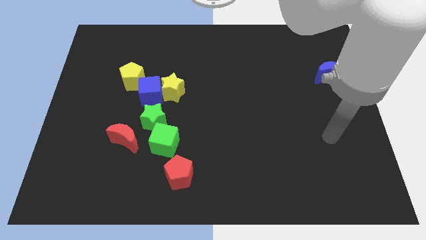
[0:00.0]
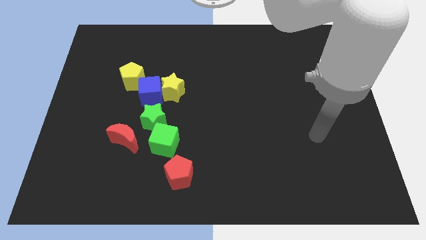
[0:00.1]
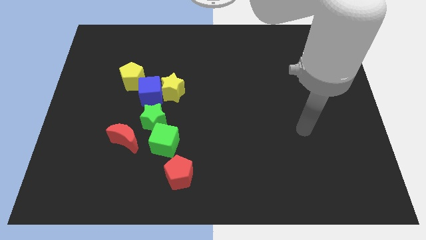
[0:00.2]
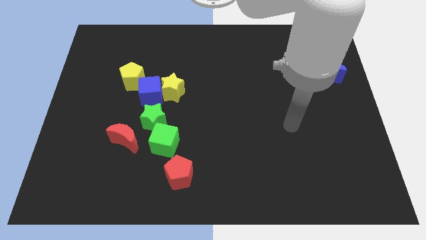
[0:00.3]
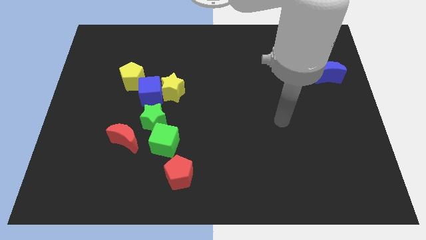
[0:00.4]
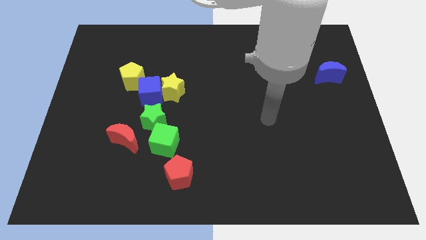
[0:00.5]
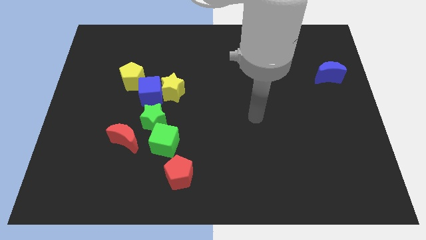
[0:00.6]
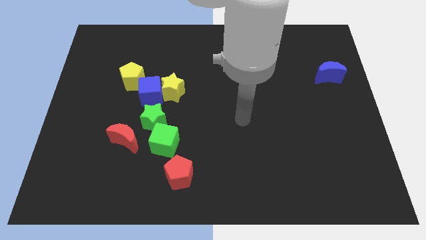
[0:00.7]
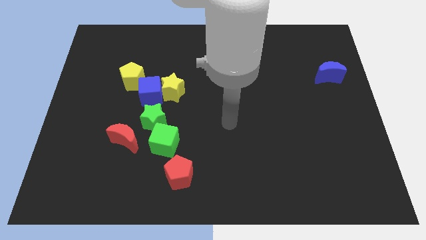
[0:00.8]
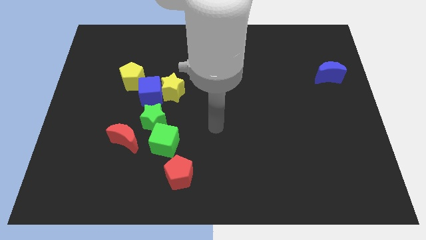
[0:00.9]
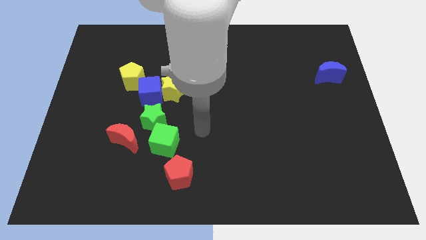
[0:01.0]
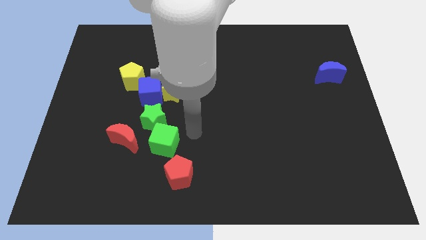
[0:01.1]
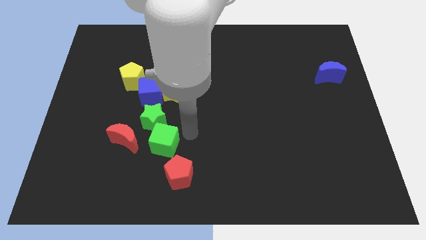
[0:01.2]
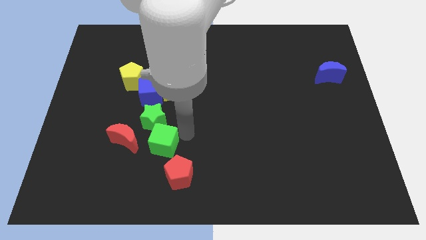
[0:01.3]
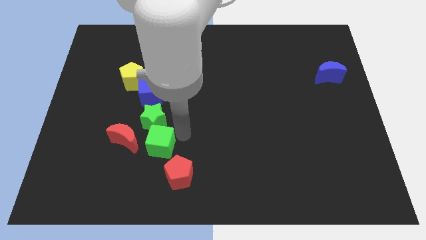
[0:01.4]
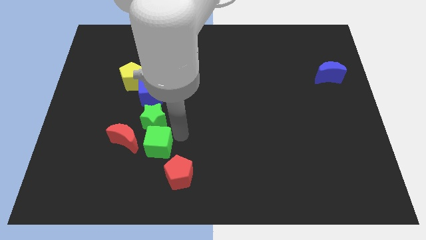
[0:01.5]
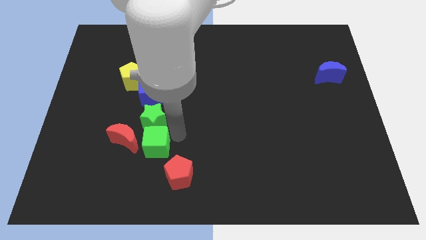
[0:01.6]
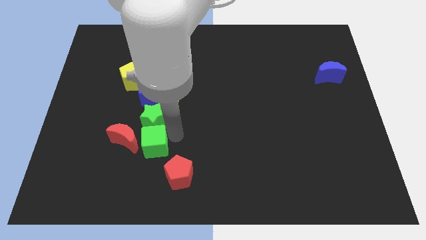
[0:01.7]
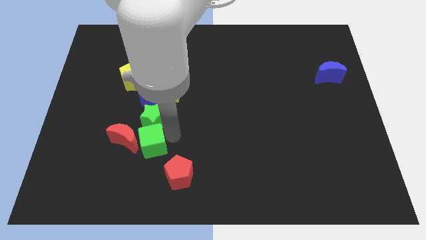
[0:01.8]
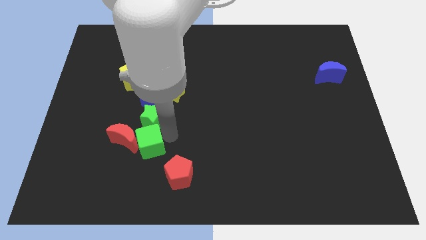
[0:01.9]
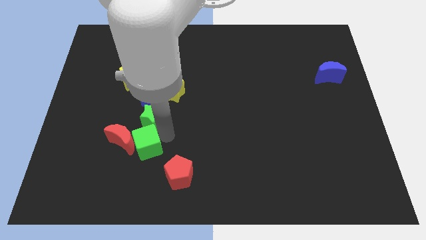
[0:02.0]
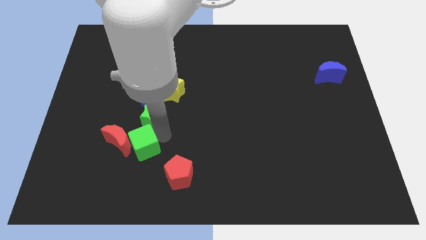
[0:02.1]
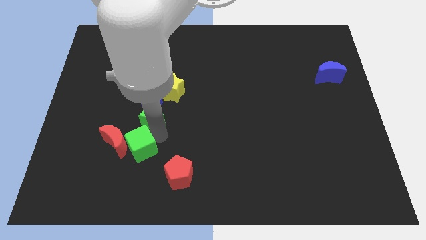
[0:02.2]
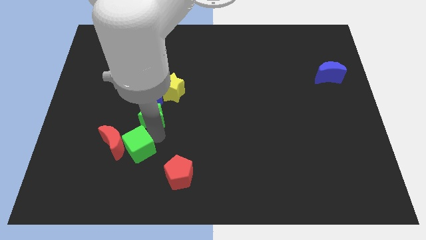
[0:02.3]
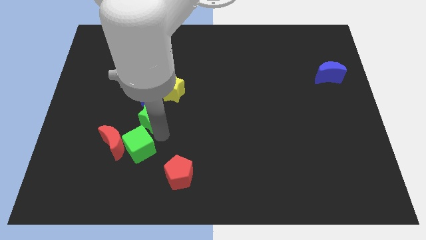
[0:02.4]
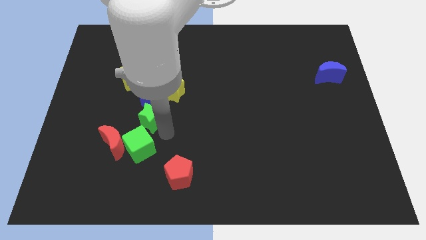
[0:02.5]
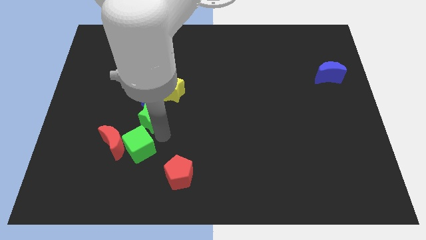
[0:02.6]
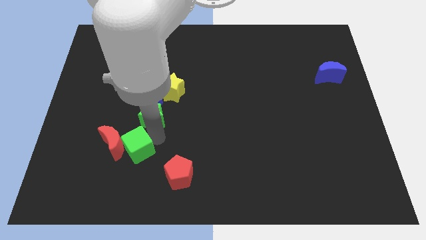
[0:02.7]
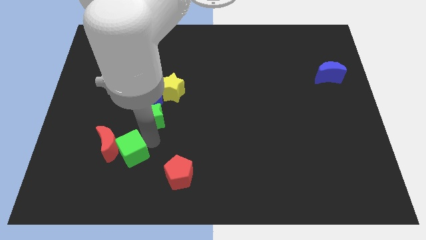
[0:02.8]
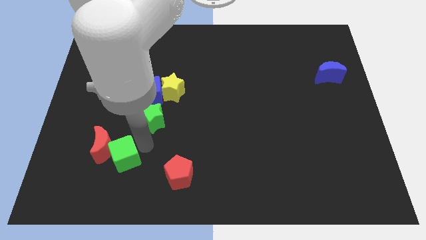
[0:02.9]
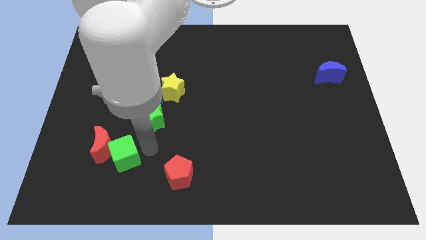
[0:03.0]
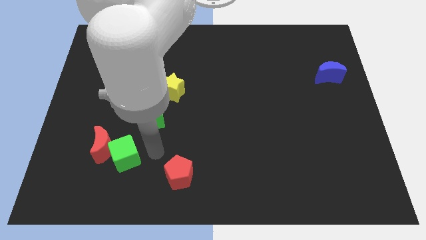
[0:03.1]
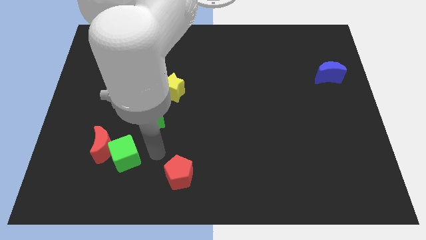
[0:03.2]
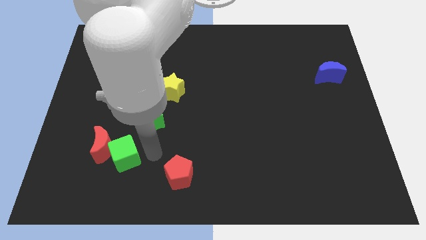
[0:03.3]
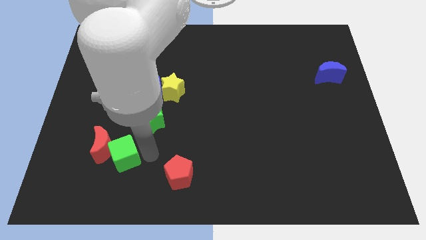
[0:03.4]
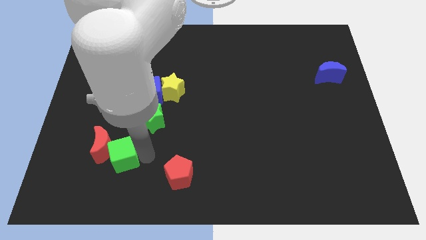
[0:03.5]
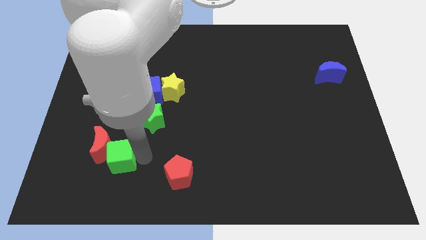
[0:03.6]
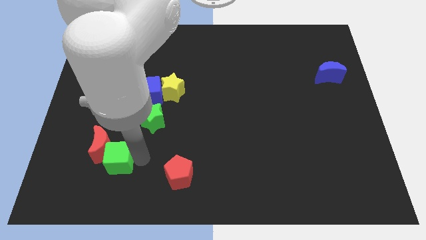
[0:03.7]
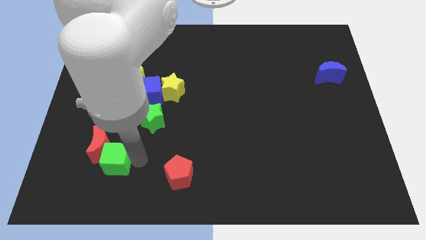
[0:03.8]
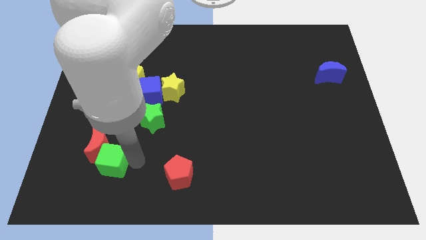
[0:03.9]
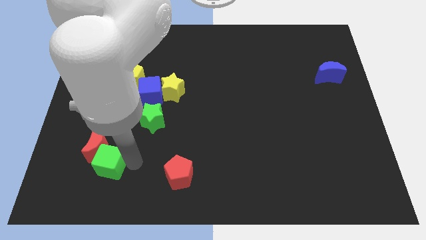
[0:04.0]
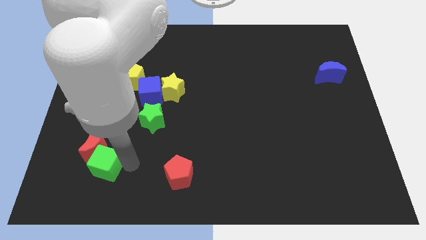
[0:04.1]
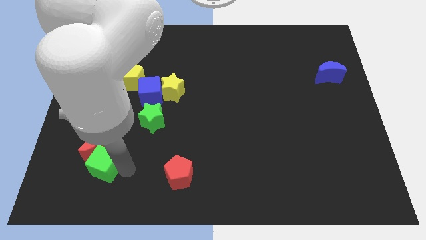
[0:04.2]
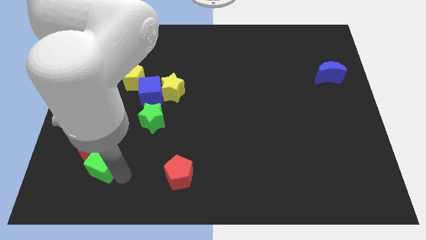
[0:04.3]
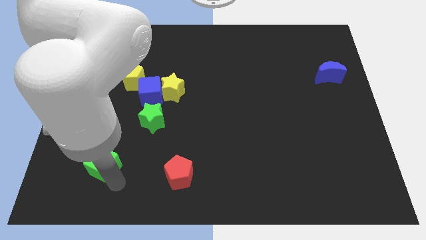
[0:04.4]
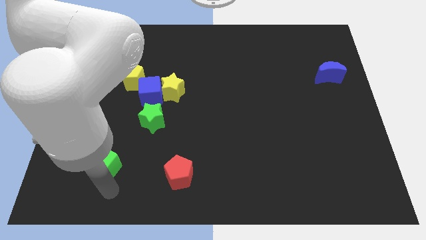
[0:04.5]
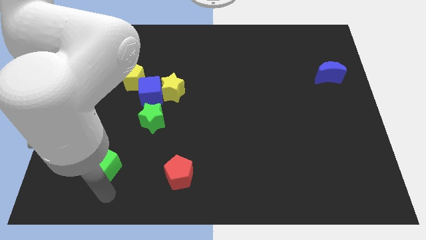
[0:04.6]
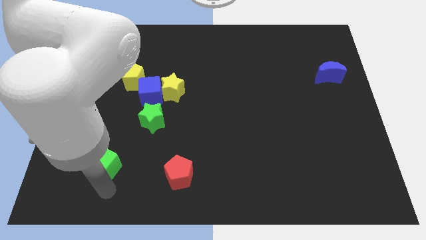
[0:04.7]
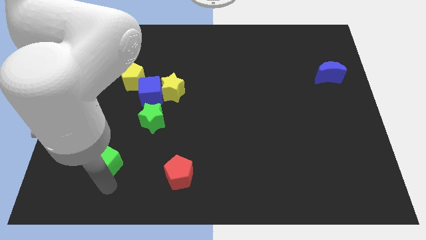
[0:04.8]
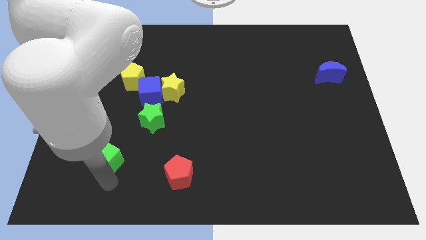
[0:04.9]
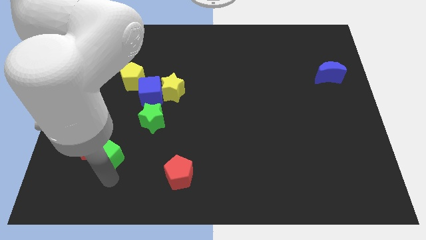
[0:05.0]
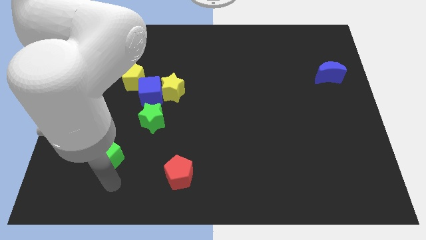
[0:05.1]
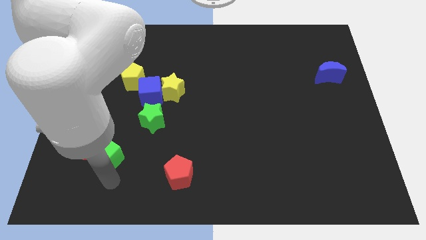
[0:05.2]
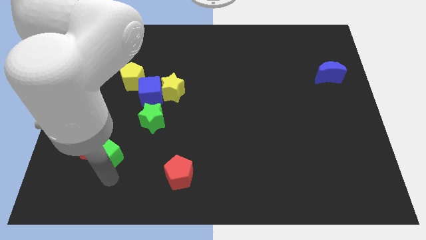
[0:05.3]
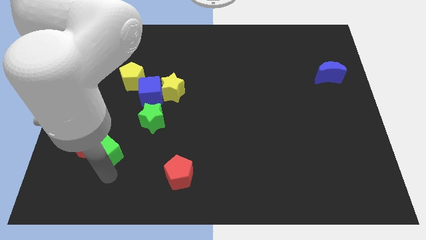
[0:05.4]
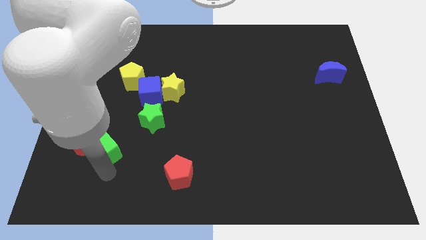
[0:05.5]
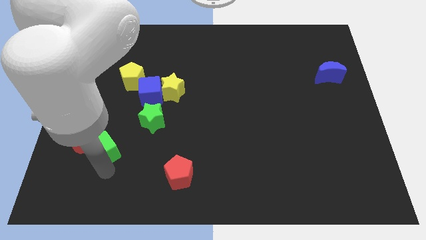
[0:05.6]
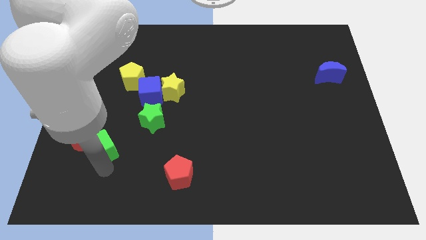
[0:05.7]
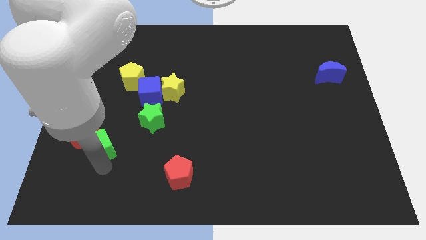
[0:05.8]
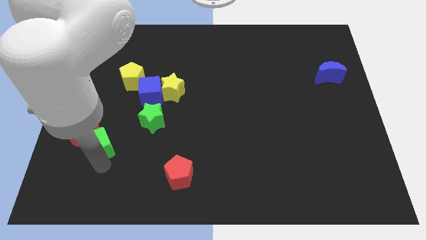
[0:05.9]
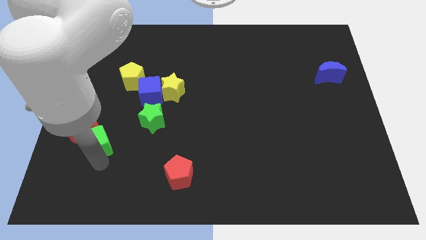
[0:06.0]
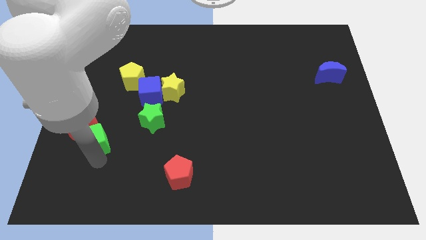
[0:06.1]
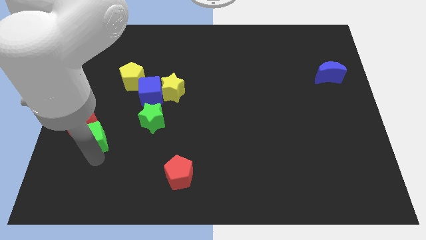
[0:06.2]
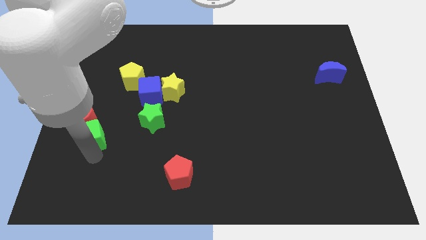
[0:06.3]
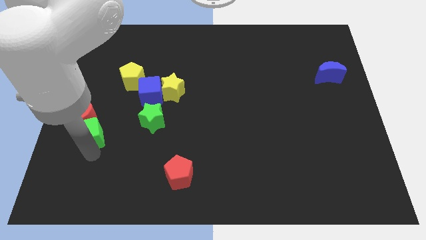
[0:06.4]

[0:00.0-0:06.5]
slide the green cube a little bit diagonally upwards and to the left

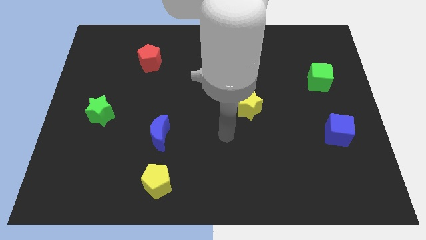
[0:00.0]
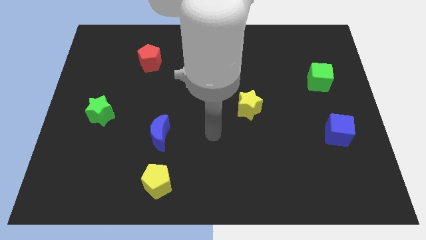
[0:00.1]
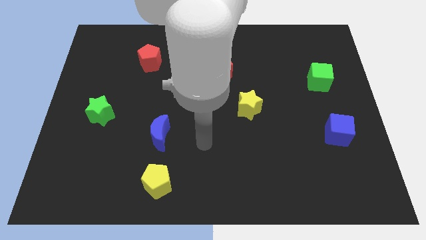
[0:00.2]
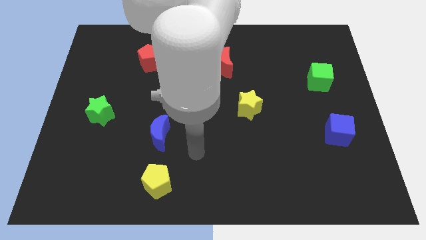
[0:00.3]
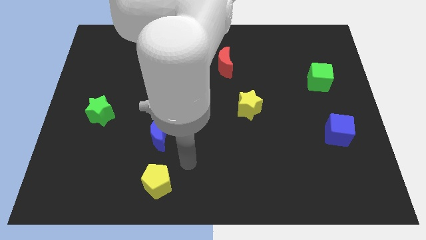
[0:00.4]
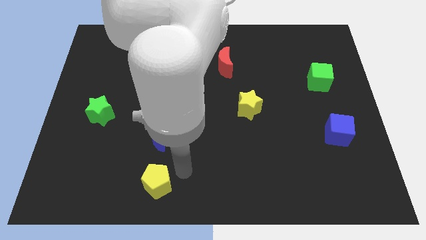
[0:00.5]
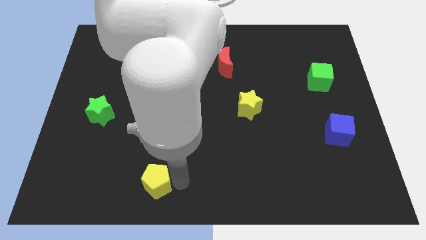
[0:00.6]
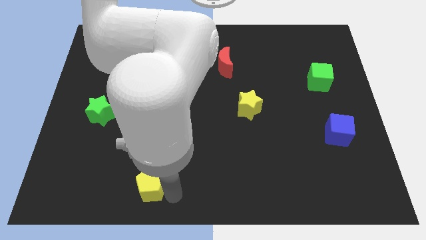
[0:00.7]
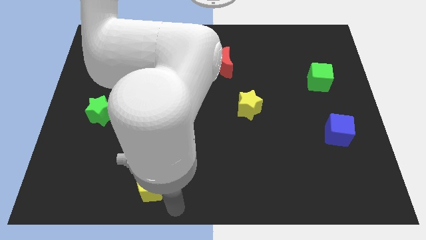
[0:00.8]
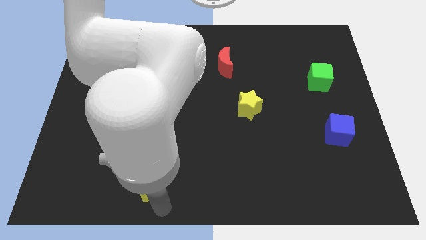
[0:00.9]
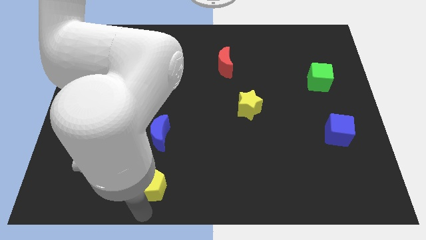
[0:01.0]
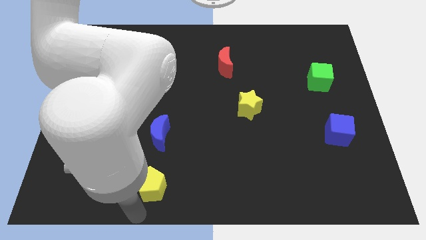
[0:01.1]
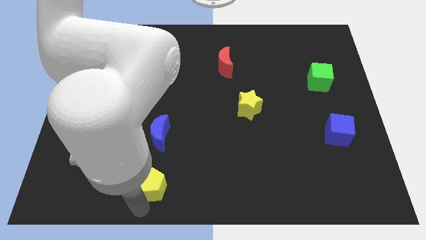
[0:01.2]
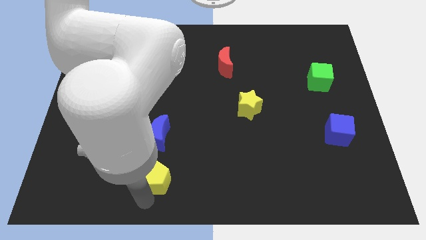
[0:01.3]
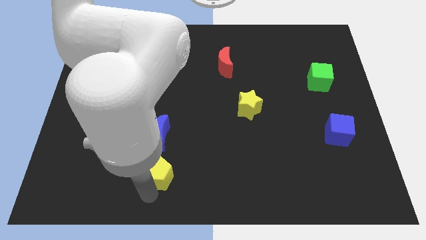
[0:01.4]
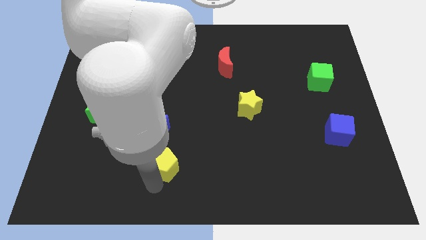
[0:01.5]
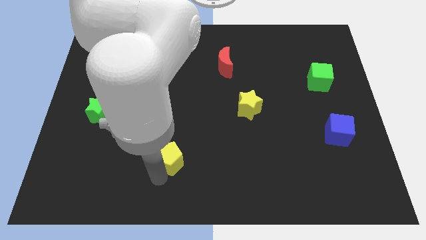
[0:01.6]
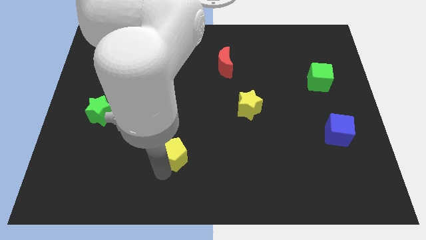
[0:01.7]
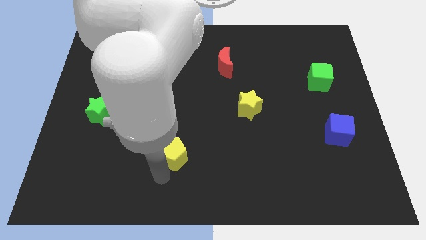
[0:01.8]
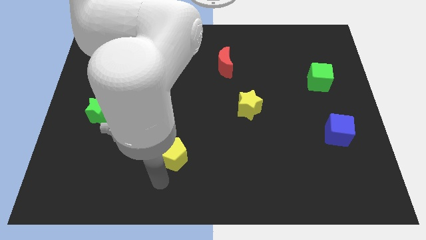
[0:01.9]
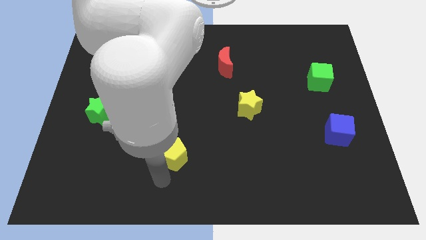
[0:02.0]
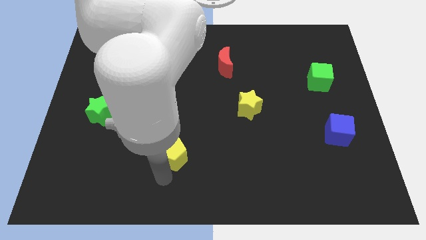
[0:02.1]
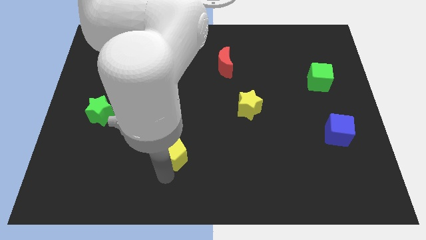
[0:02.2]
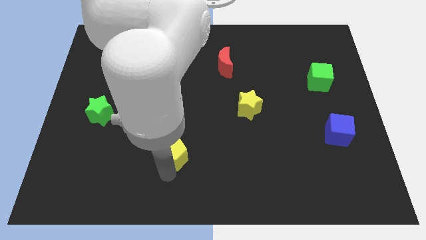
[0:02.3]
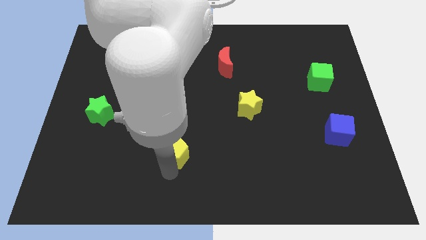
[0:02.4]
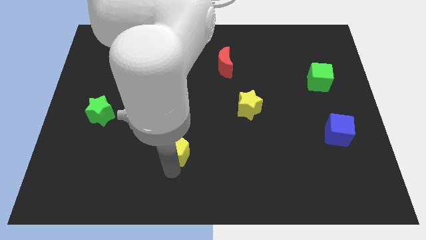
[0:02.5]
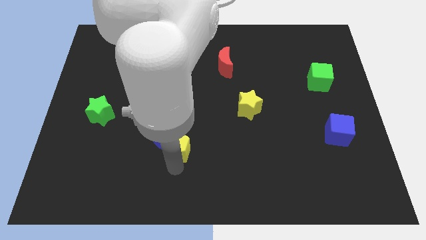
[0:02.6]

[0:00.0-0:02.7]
move the yellow pentagon upwards slightly
